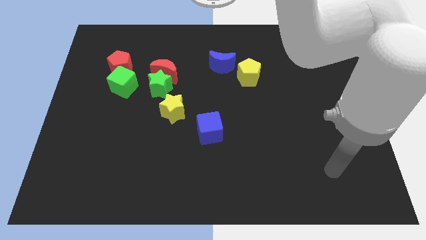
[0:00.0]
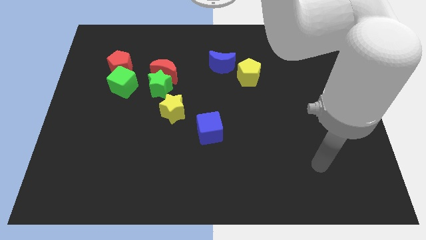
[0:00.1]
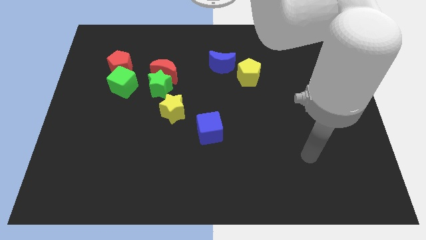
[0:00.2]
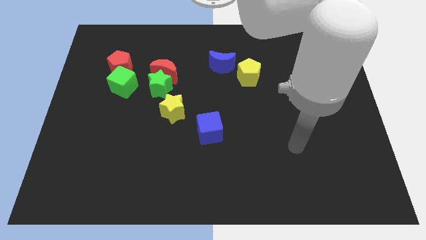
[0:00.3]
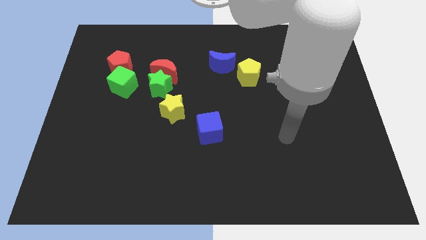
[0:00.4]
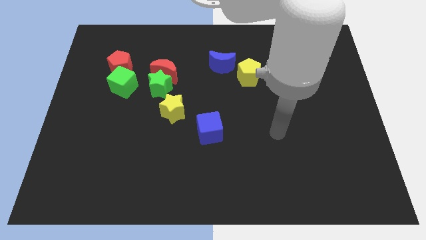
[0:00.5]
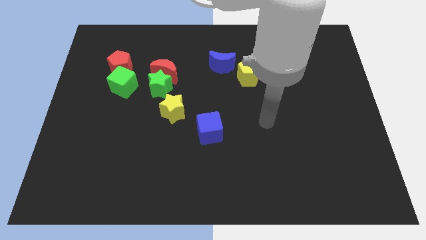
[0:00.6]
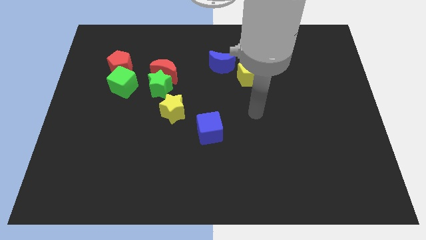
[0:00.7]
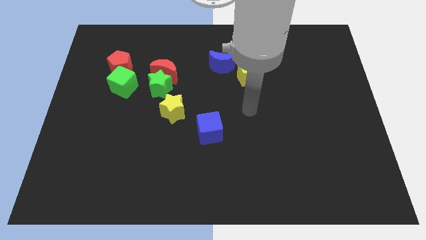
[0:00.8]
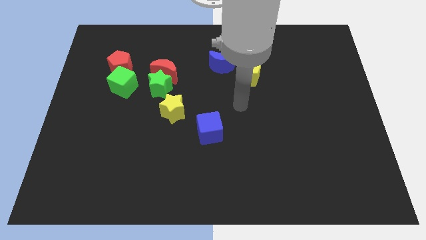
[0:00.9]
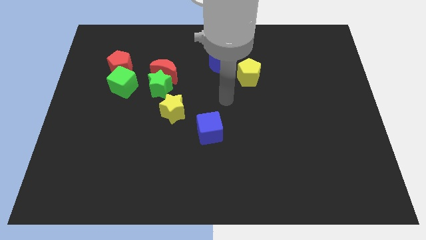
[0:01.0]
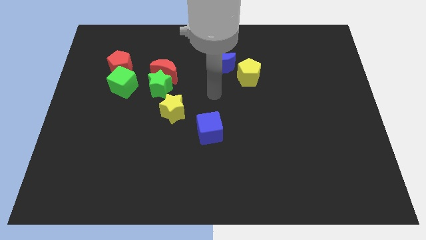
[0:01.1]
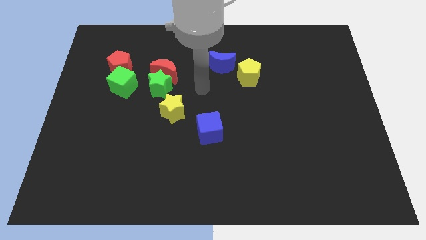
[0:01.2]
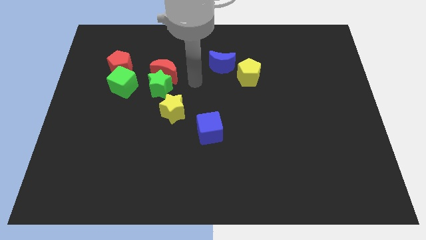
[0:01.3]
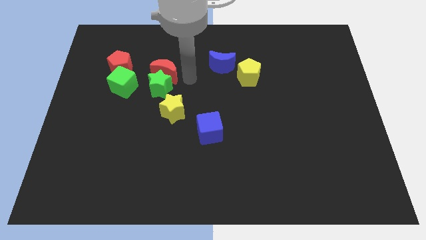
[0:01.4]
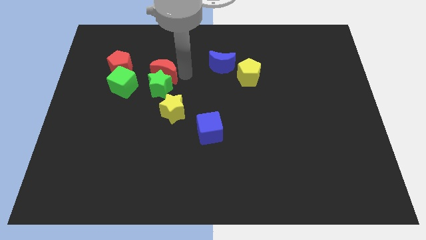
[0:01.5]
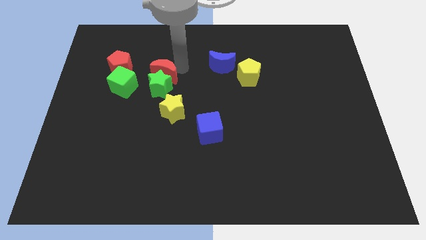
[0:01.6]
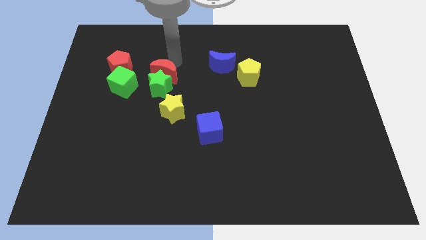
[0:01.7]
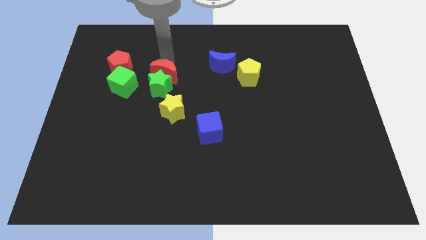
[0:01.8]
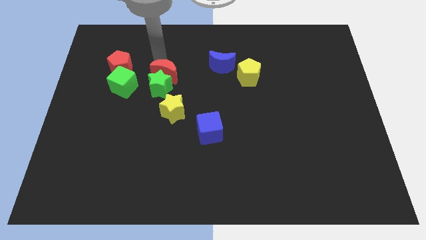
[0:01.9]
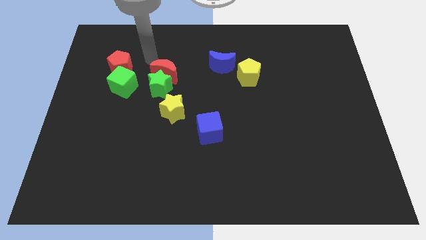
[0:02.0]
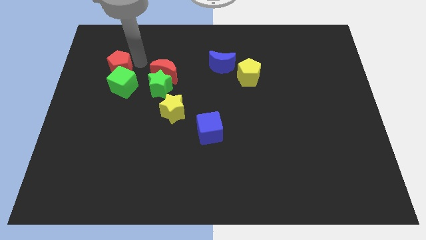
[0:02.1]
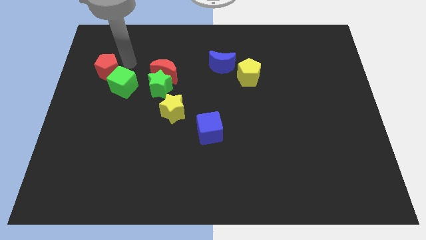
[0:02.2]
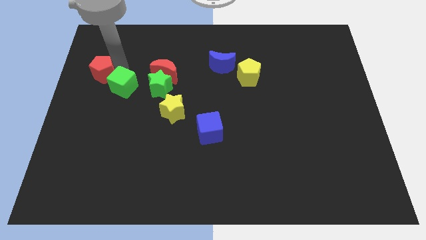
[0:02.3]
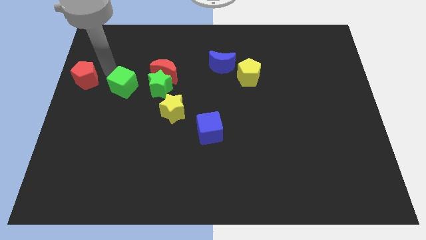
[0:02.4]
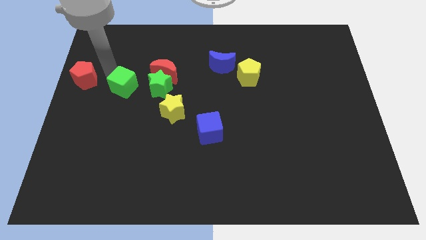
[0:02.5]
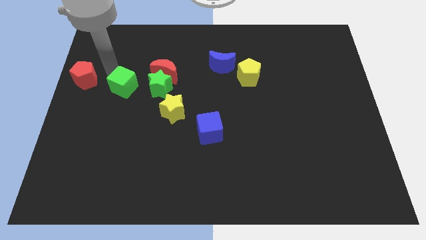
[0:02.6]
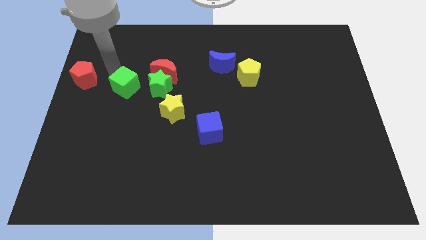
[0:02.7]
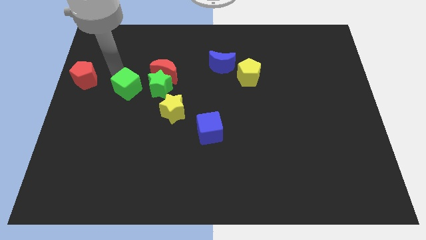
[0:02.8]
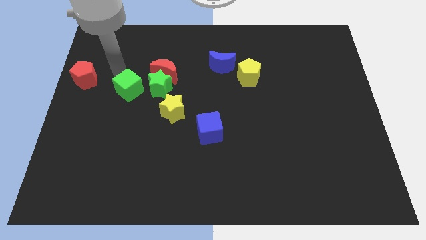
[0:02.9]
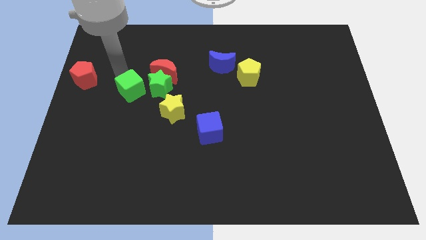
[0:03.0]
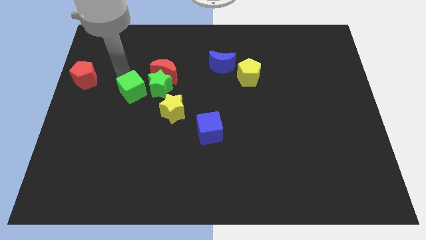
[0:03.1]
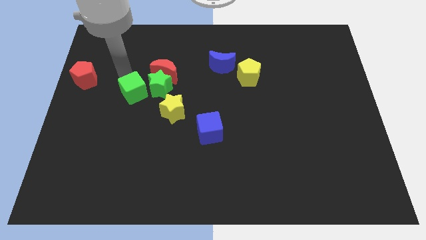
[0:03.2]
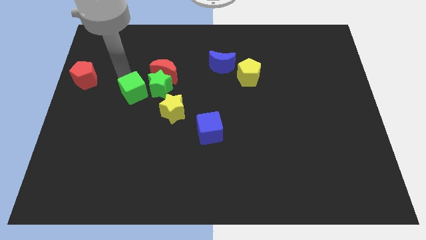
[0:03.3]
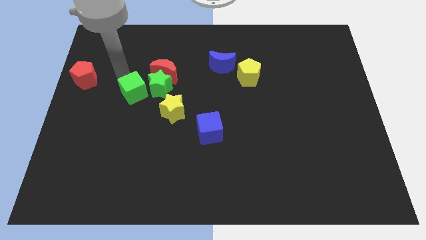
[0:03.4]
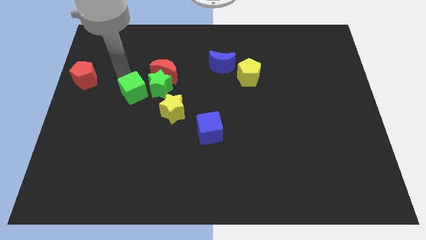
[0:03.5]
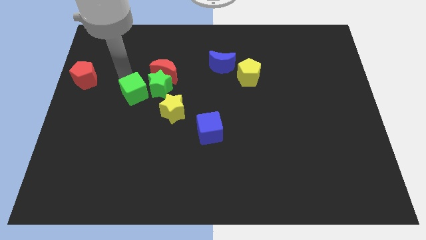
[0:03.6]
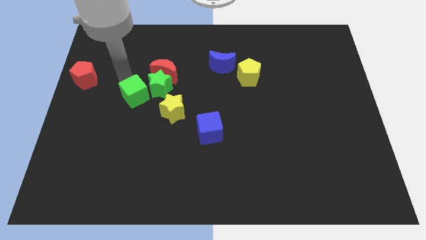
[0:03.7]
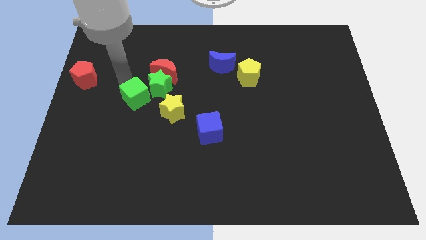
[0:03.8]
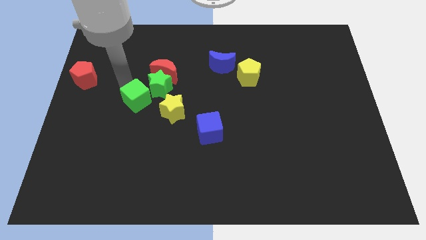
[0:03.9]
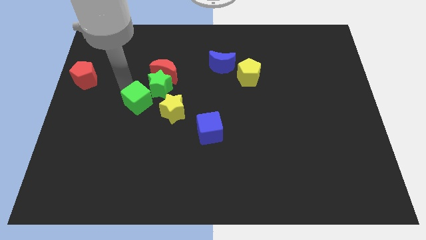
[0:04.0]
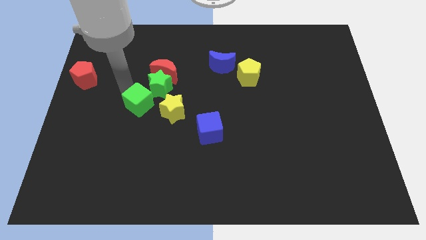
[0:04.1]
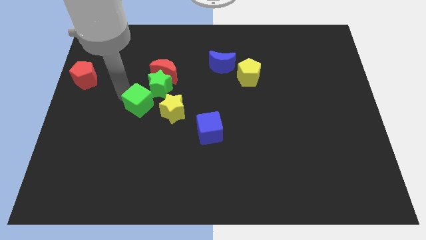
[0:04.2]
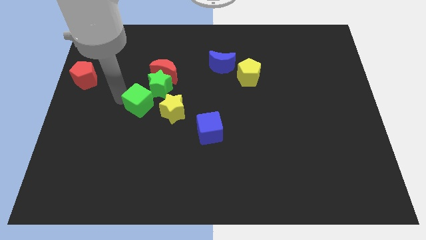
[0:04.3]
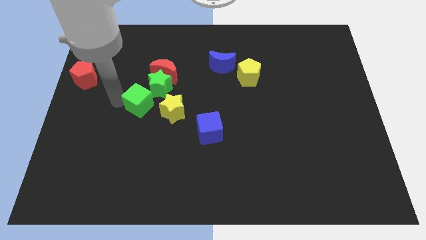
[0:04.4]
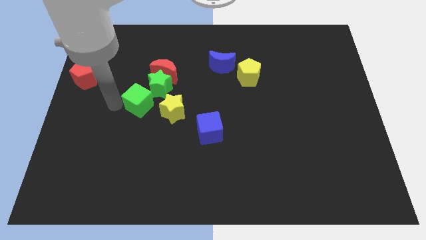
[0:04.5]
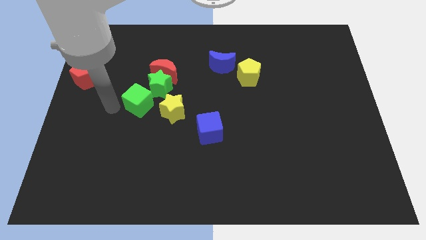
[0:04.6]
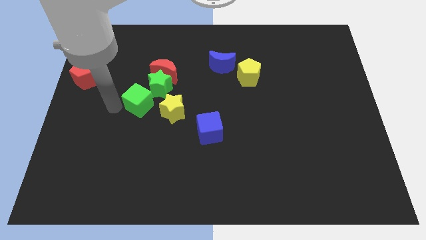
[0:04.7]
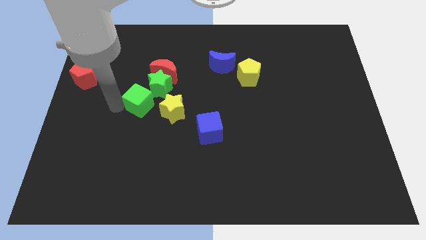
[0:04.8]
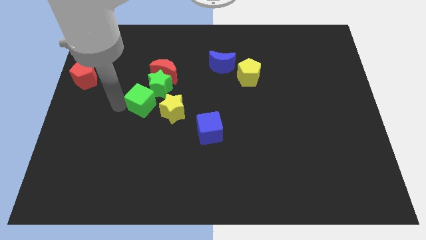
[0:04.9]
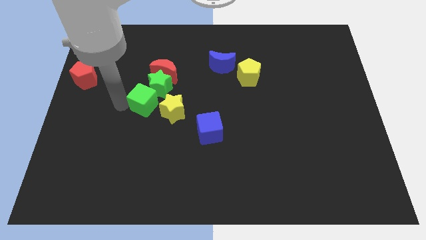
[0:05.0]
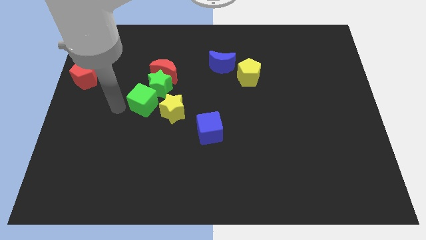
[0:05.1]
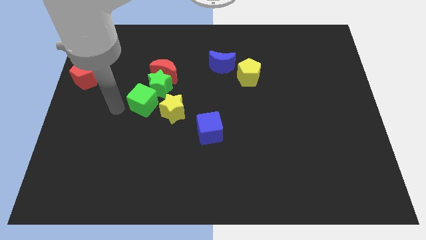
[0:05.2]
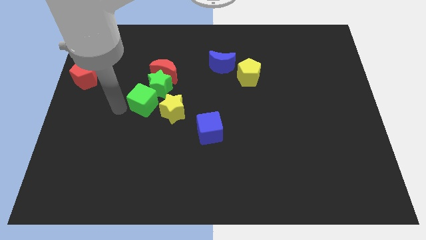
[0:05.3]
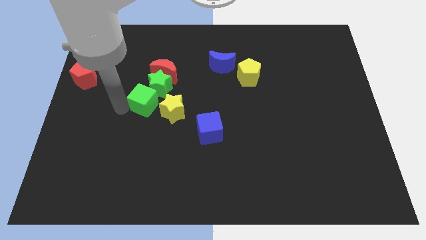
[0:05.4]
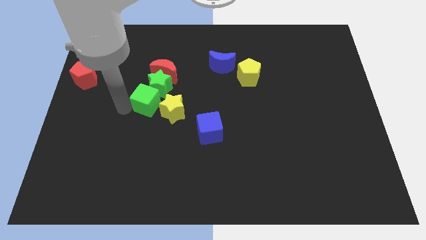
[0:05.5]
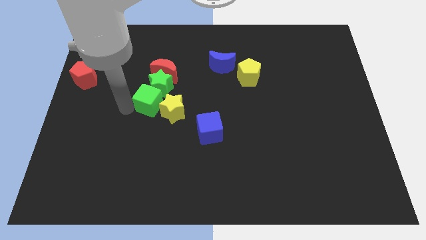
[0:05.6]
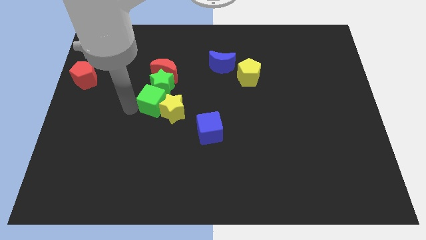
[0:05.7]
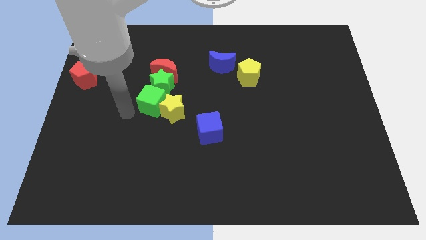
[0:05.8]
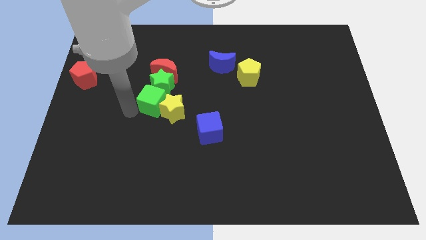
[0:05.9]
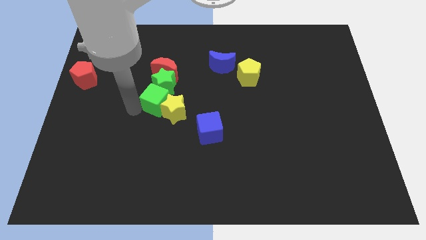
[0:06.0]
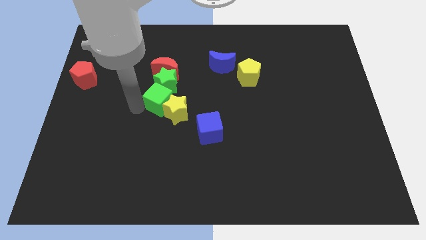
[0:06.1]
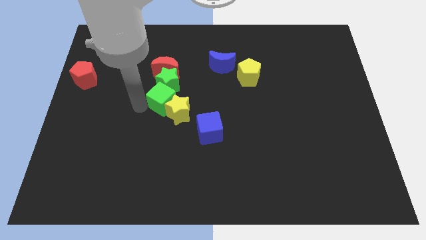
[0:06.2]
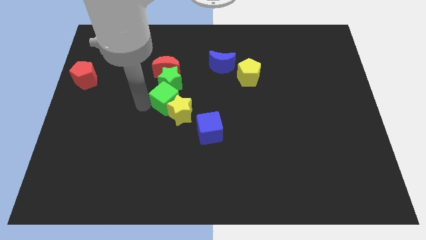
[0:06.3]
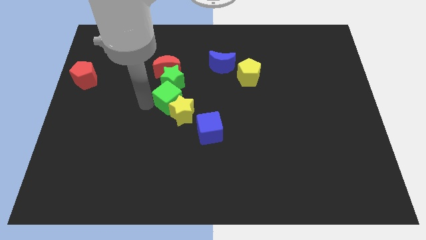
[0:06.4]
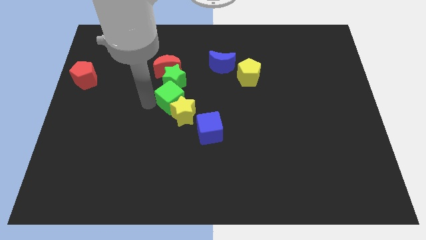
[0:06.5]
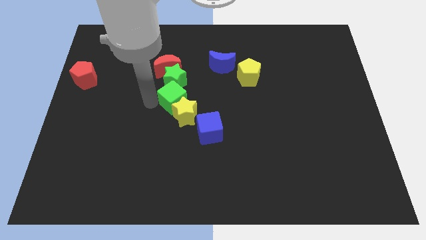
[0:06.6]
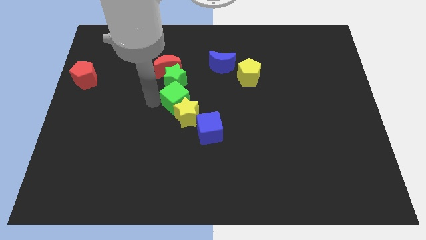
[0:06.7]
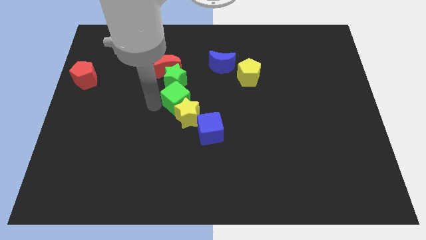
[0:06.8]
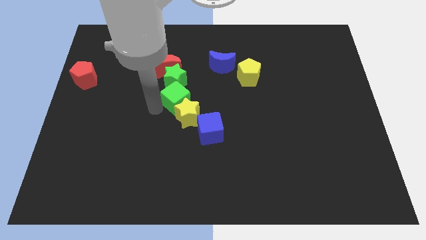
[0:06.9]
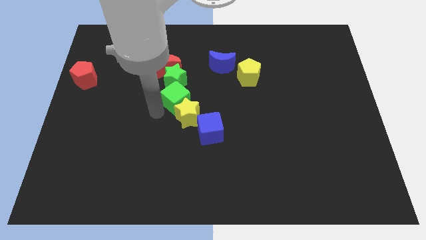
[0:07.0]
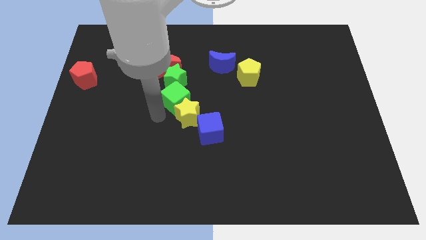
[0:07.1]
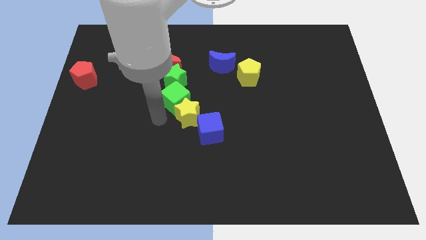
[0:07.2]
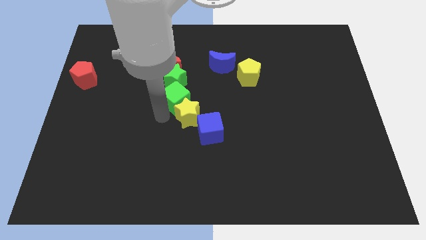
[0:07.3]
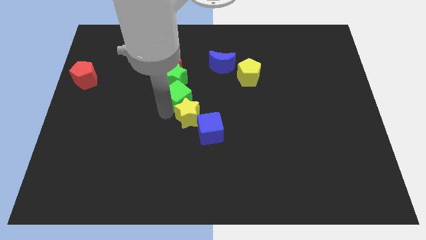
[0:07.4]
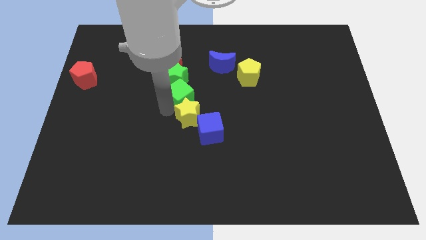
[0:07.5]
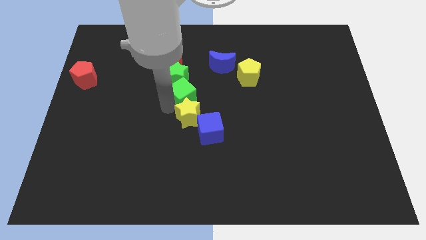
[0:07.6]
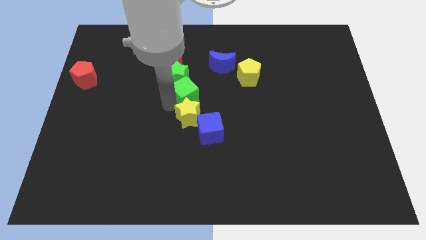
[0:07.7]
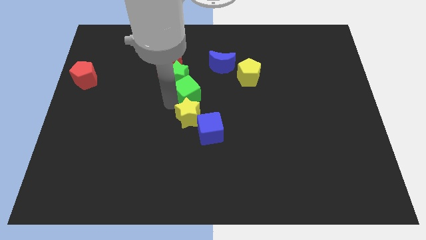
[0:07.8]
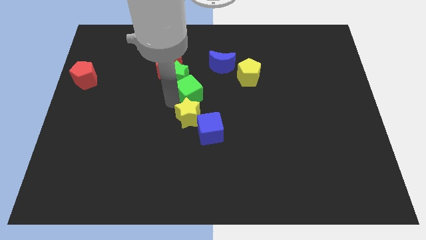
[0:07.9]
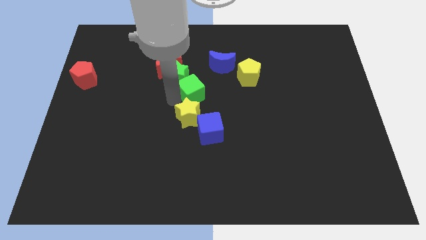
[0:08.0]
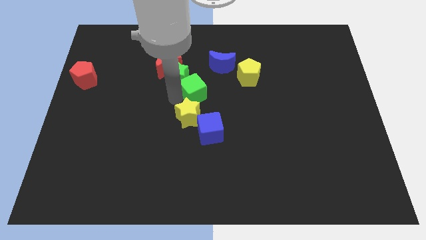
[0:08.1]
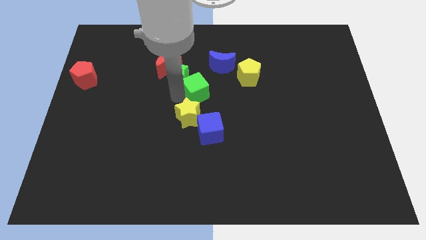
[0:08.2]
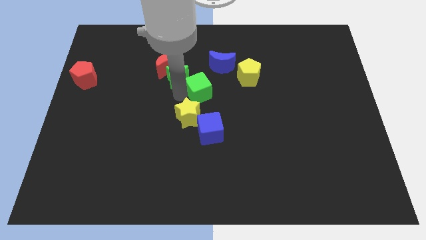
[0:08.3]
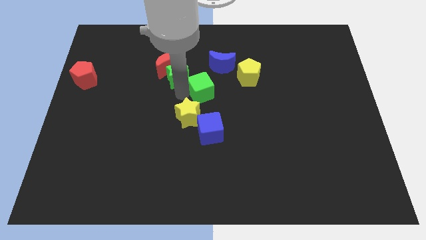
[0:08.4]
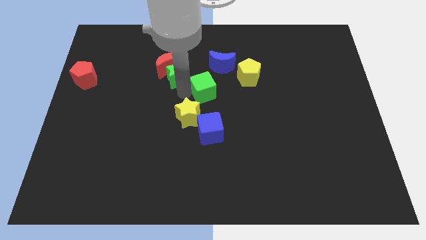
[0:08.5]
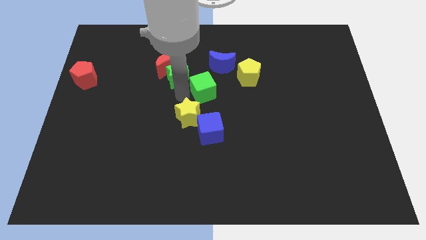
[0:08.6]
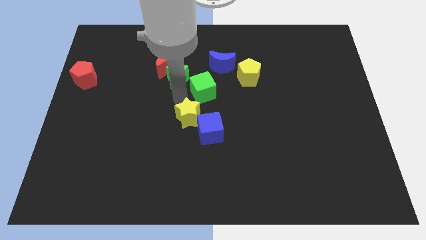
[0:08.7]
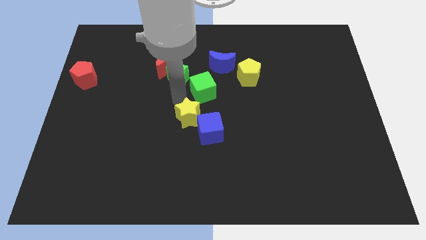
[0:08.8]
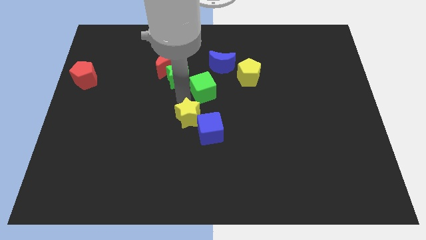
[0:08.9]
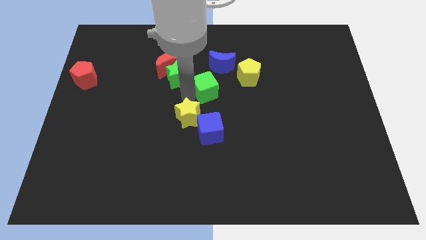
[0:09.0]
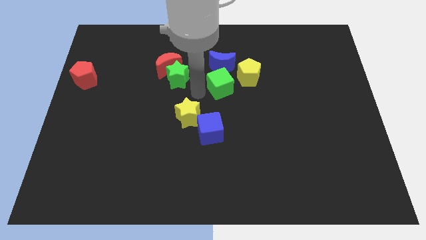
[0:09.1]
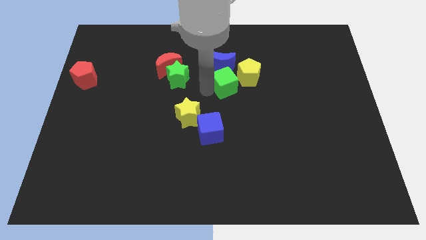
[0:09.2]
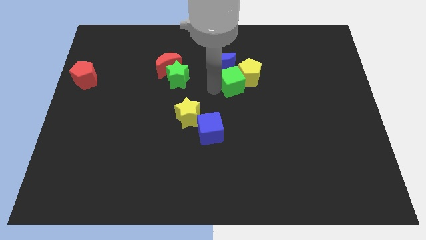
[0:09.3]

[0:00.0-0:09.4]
slide the green cube close to the yellow pentagon
